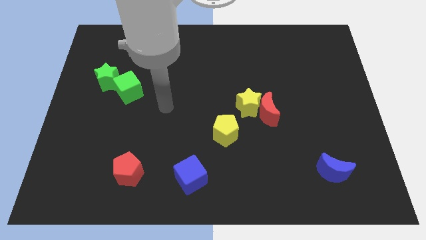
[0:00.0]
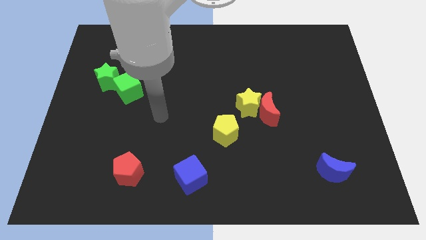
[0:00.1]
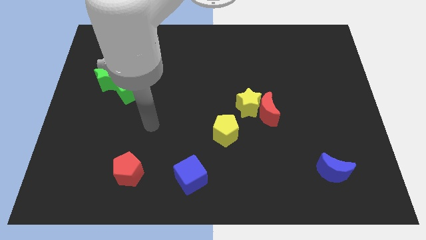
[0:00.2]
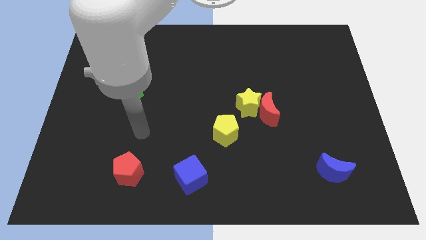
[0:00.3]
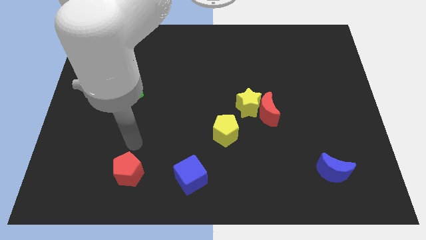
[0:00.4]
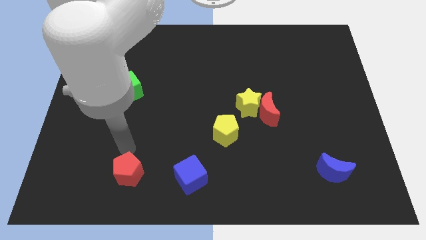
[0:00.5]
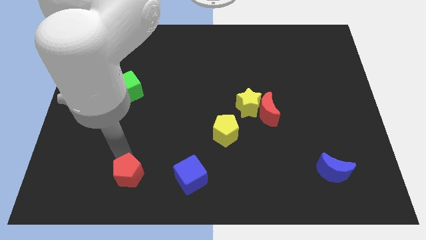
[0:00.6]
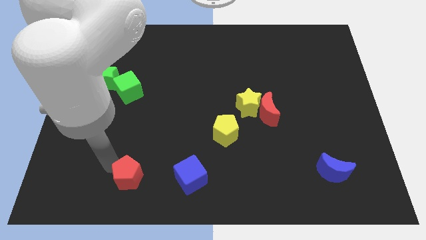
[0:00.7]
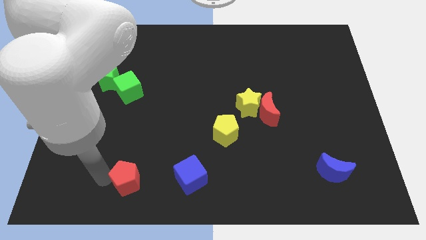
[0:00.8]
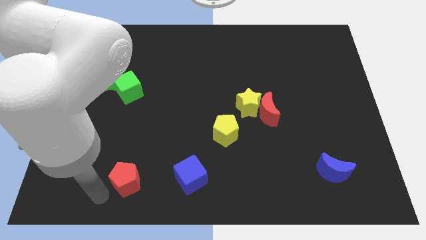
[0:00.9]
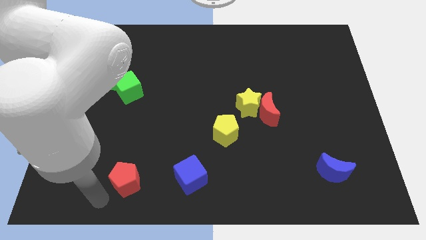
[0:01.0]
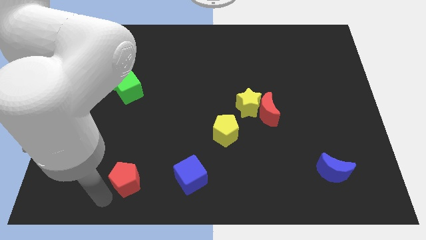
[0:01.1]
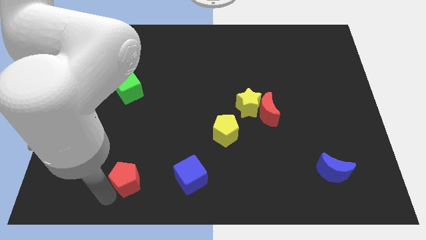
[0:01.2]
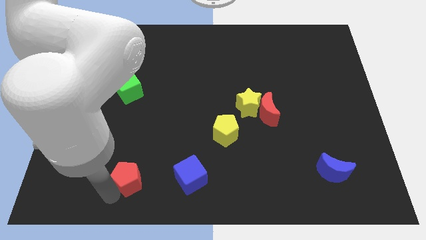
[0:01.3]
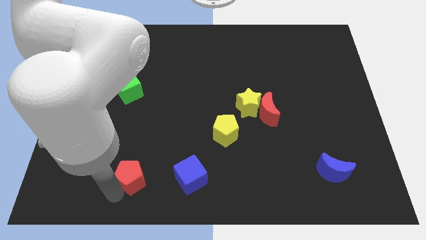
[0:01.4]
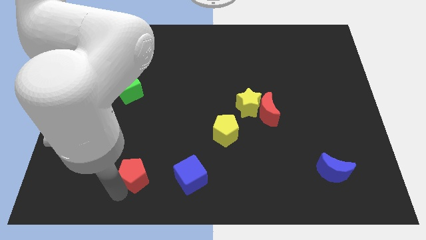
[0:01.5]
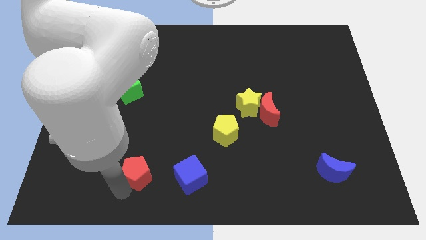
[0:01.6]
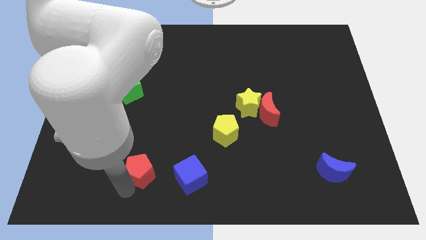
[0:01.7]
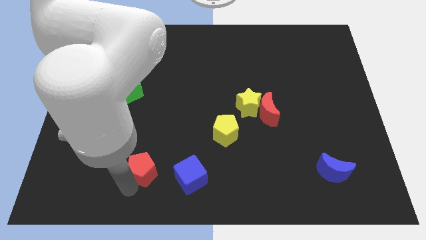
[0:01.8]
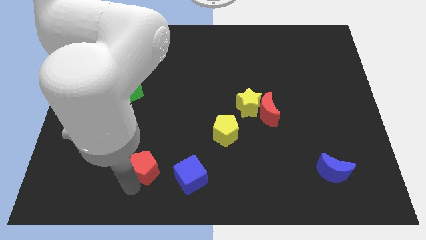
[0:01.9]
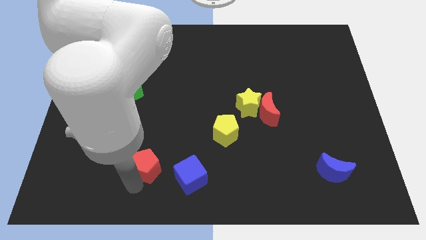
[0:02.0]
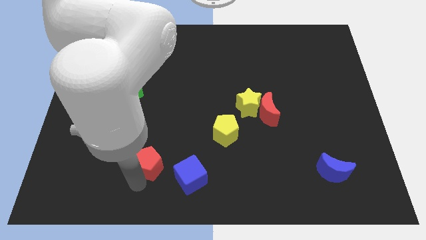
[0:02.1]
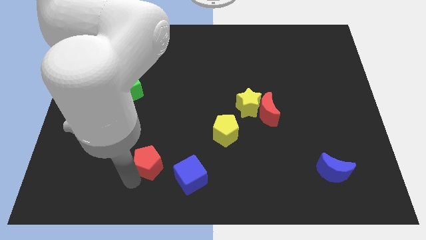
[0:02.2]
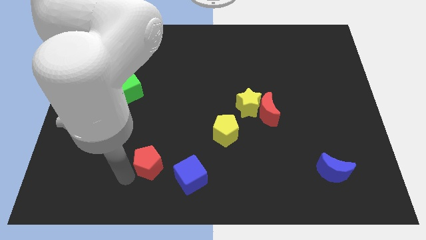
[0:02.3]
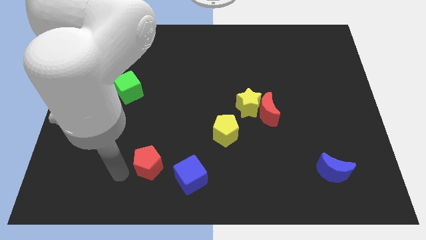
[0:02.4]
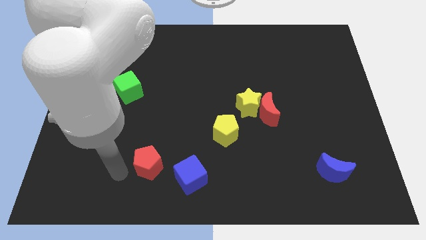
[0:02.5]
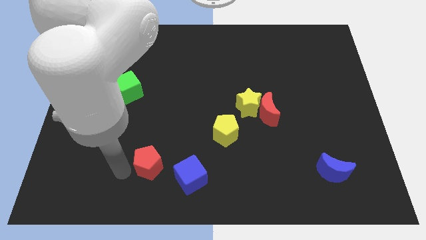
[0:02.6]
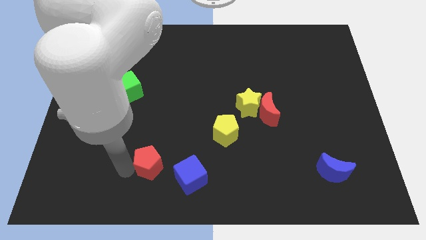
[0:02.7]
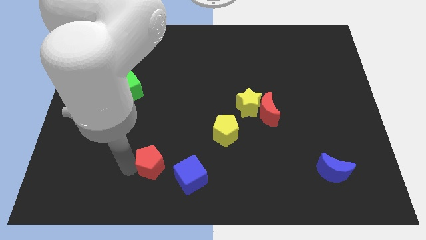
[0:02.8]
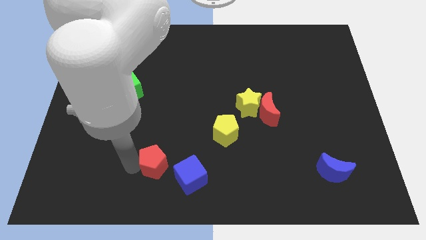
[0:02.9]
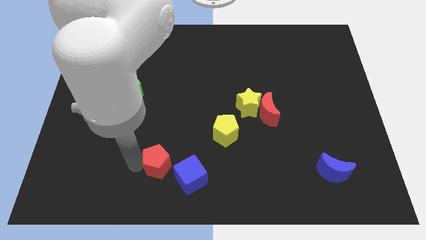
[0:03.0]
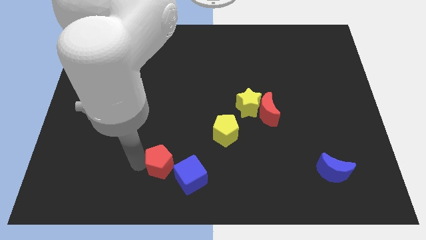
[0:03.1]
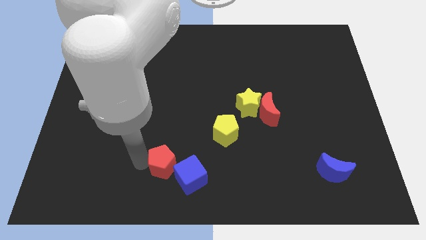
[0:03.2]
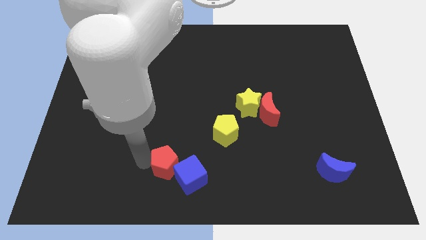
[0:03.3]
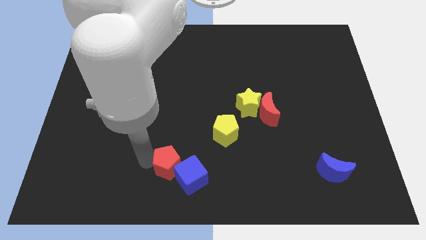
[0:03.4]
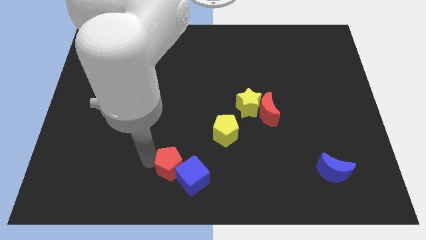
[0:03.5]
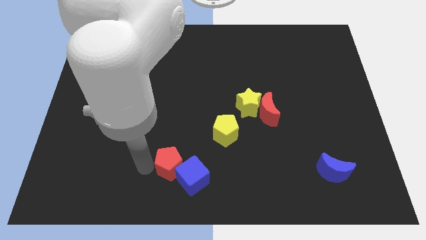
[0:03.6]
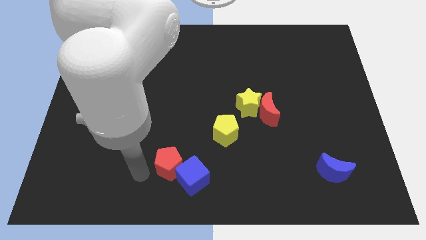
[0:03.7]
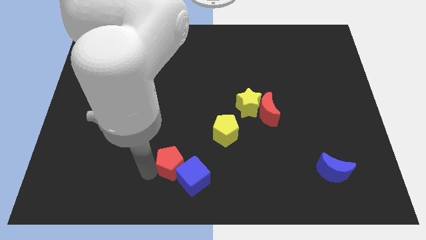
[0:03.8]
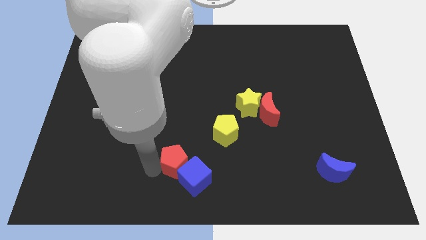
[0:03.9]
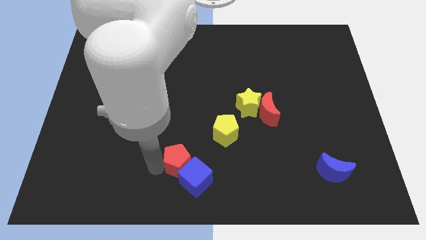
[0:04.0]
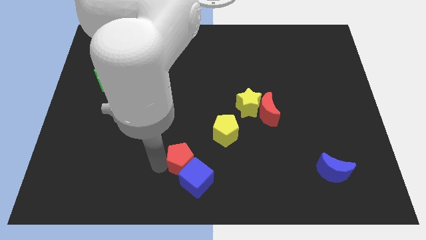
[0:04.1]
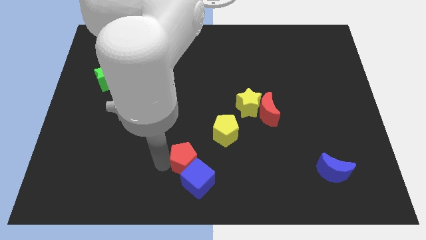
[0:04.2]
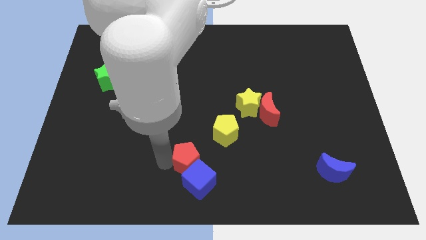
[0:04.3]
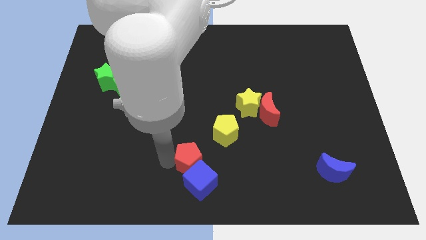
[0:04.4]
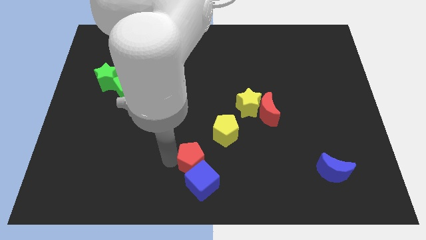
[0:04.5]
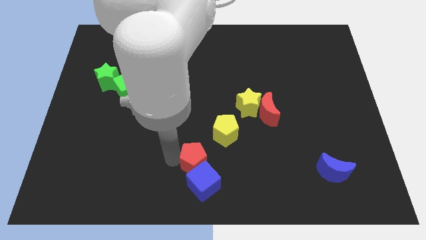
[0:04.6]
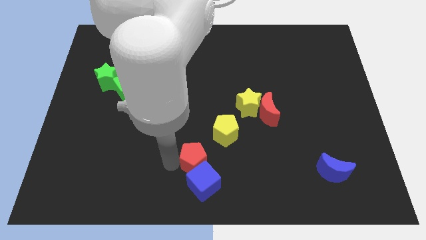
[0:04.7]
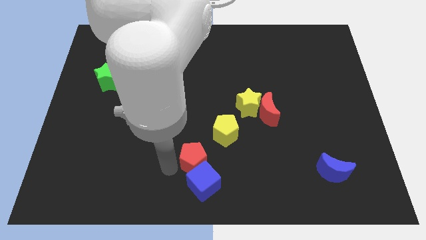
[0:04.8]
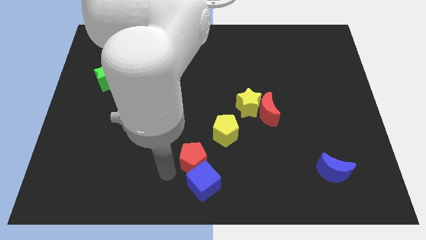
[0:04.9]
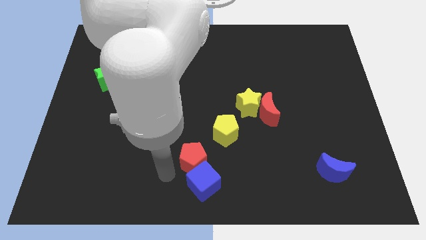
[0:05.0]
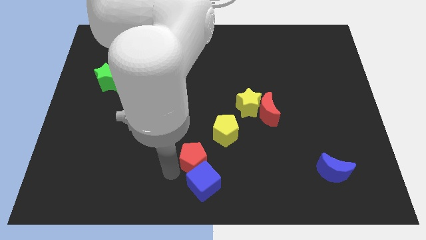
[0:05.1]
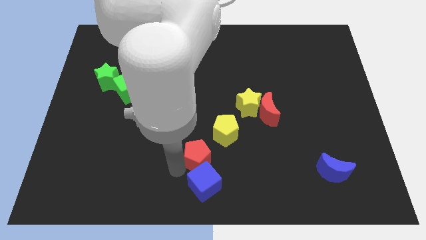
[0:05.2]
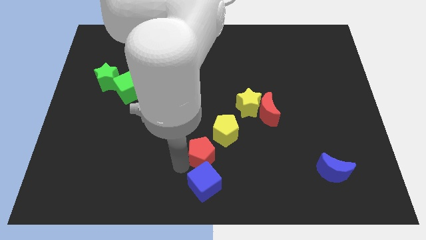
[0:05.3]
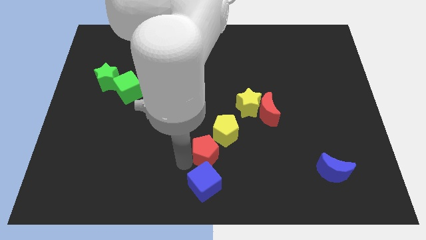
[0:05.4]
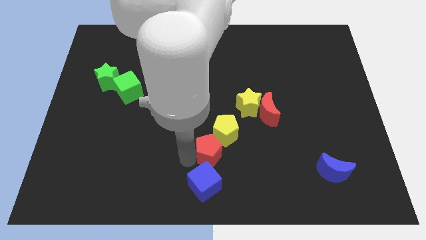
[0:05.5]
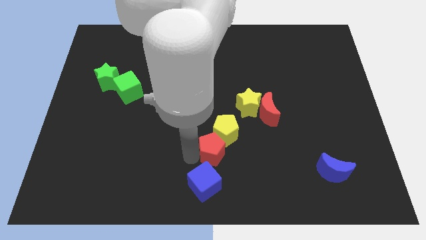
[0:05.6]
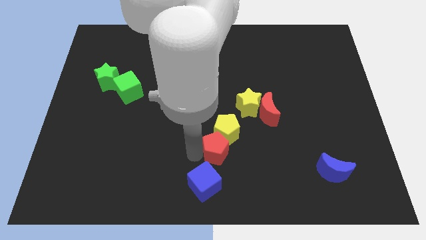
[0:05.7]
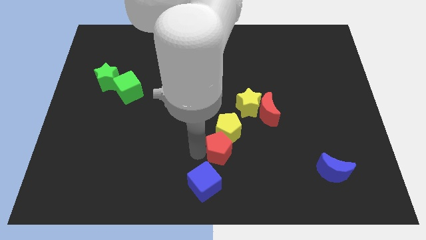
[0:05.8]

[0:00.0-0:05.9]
slide the red pentagon to the bottom right of the yellow pentagon

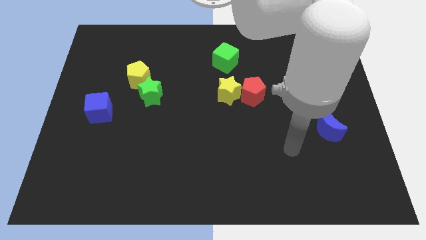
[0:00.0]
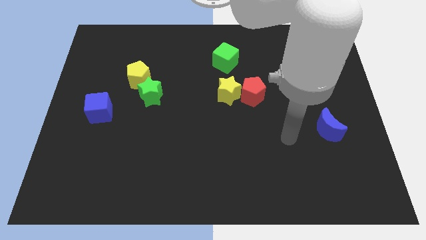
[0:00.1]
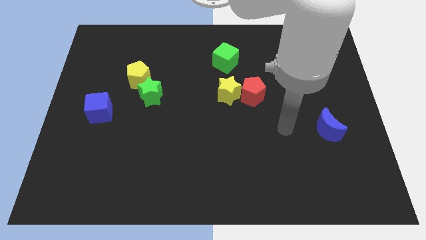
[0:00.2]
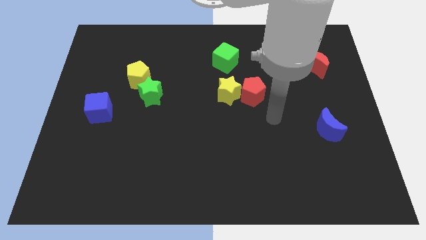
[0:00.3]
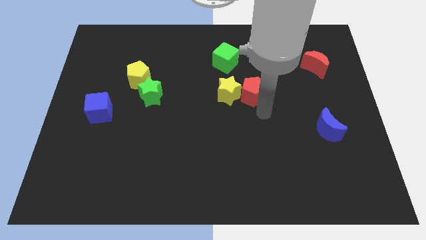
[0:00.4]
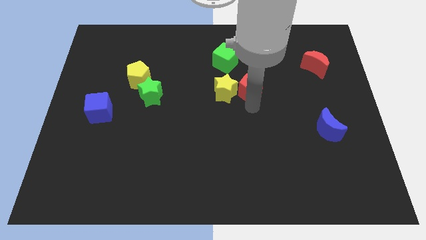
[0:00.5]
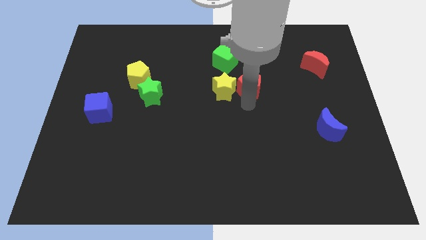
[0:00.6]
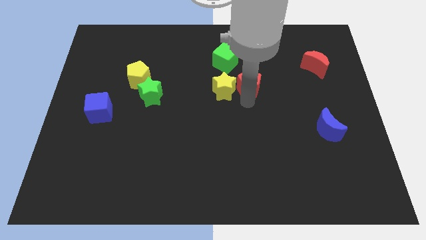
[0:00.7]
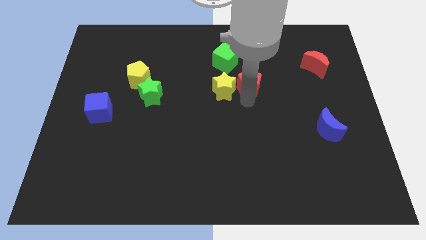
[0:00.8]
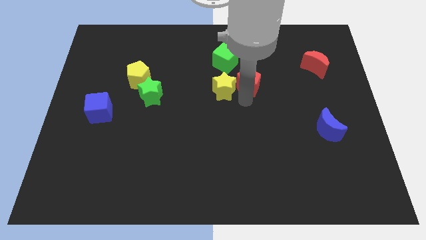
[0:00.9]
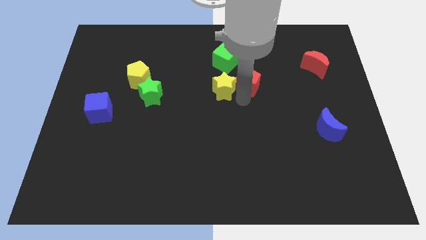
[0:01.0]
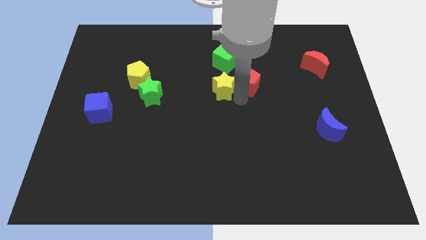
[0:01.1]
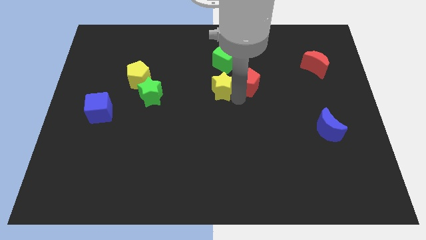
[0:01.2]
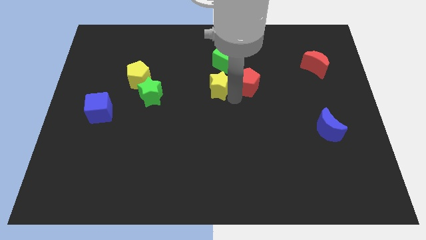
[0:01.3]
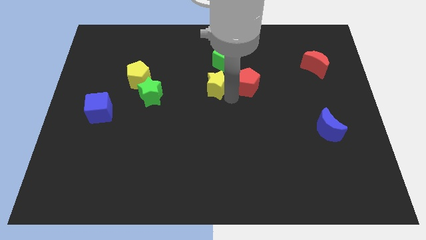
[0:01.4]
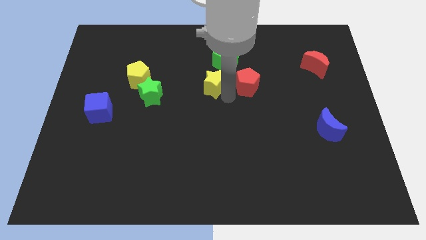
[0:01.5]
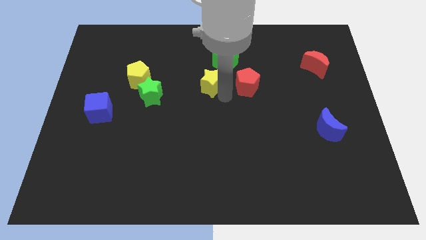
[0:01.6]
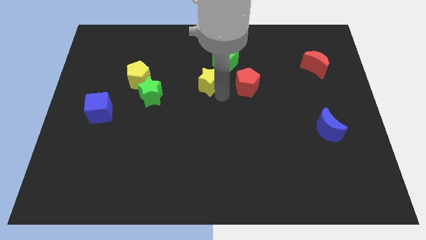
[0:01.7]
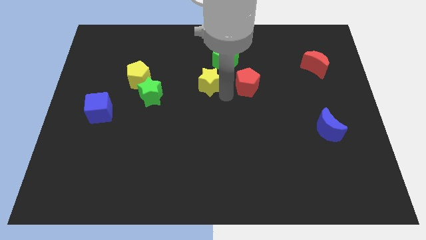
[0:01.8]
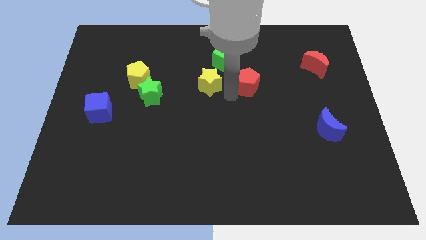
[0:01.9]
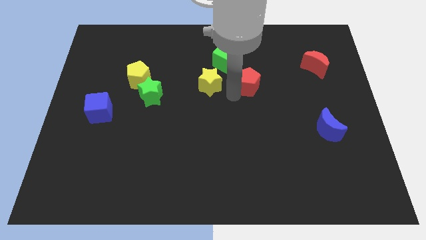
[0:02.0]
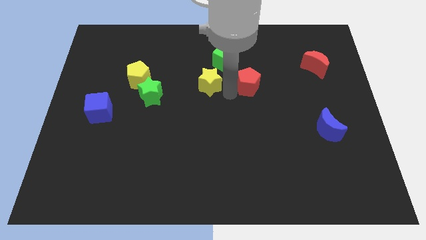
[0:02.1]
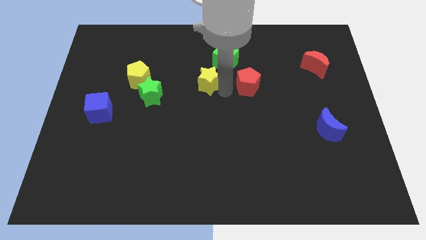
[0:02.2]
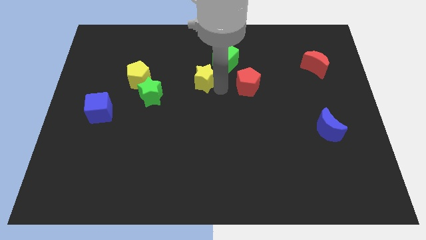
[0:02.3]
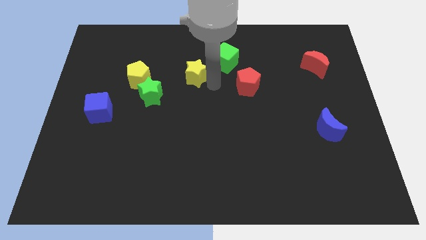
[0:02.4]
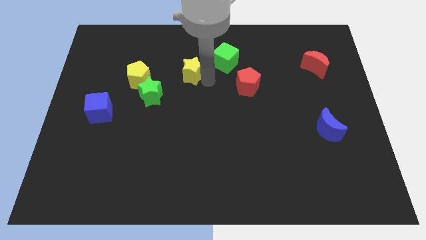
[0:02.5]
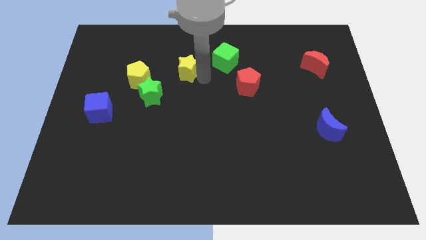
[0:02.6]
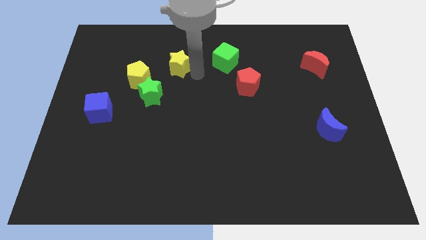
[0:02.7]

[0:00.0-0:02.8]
slide the yellow star to the top right of the yellow pentagon
